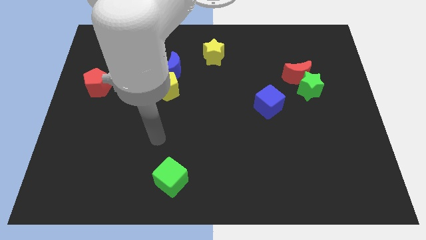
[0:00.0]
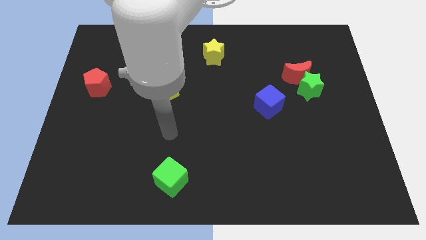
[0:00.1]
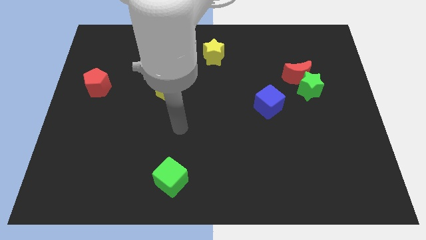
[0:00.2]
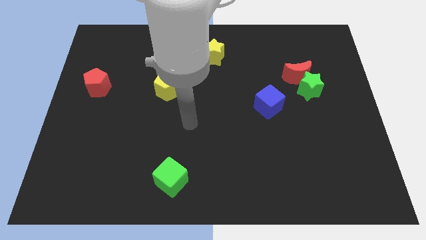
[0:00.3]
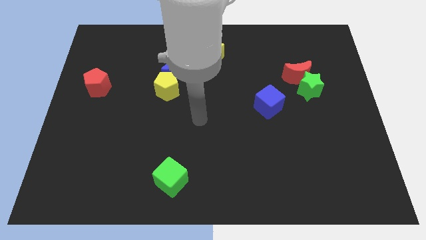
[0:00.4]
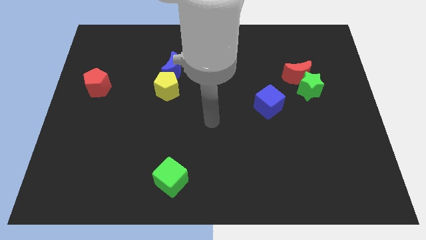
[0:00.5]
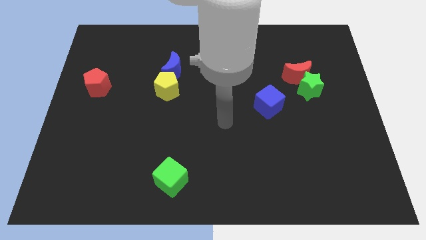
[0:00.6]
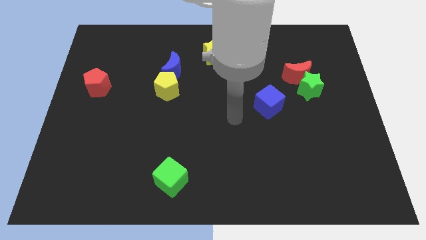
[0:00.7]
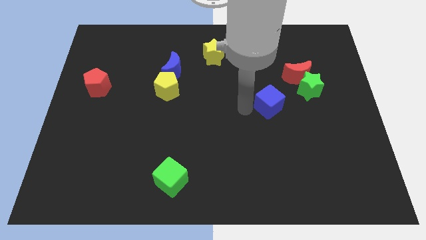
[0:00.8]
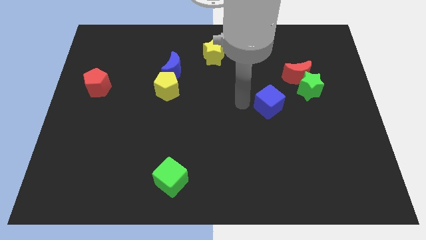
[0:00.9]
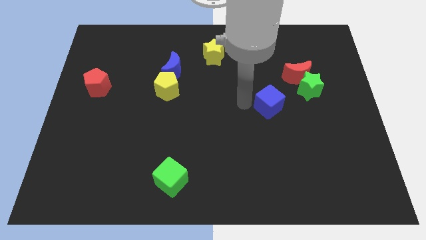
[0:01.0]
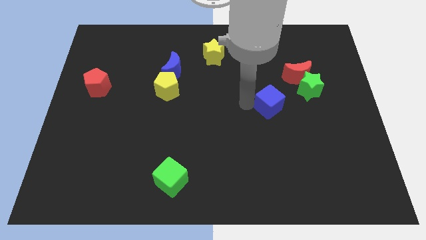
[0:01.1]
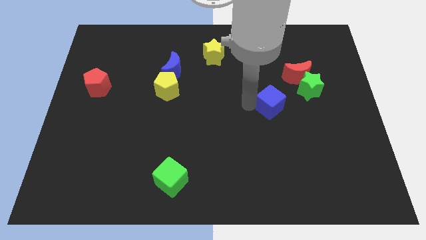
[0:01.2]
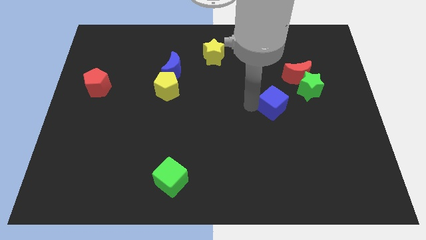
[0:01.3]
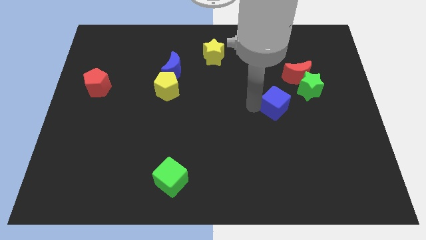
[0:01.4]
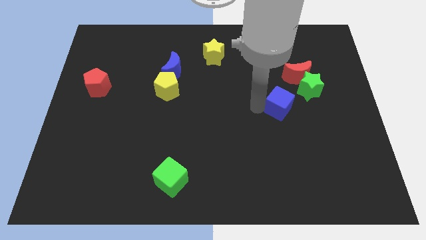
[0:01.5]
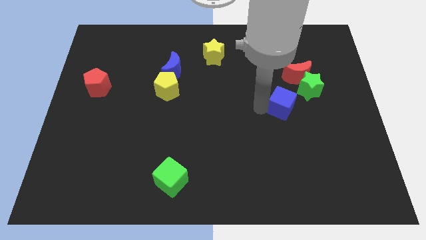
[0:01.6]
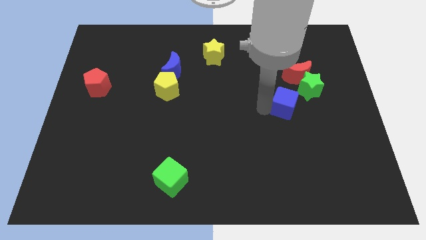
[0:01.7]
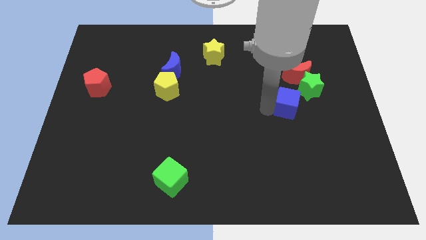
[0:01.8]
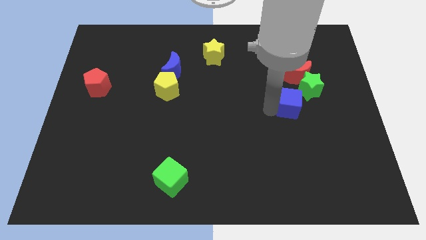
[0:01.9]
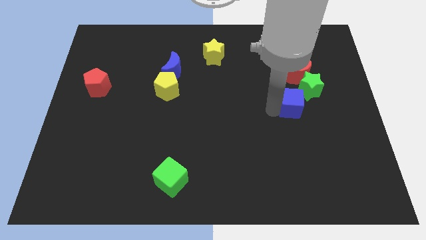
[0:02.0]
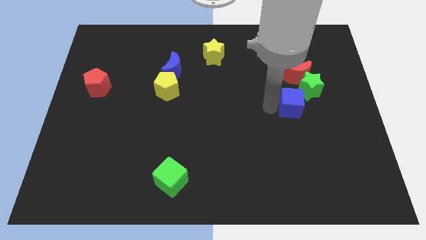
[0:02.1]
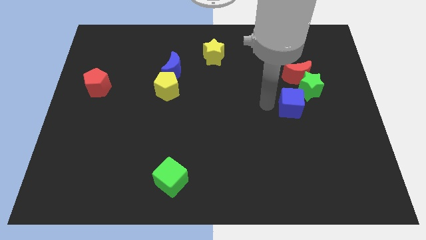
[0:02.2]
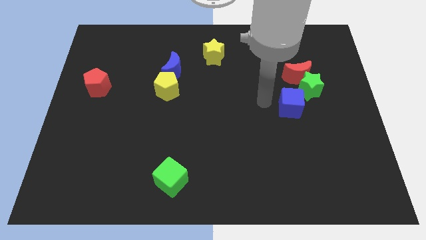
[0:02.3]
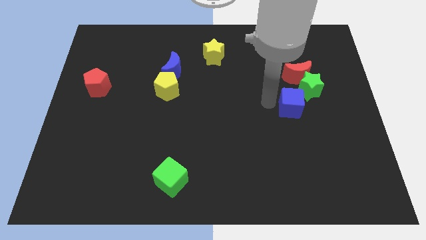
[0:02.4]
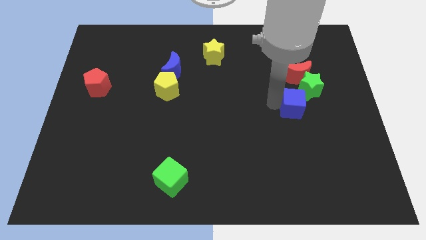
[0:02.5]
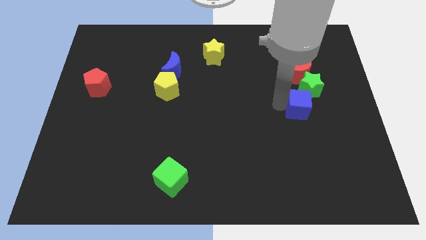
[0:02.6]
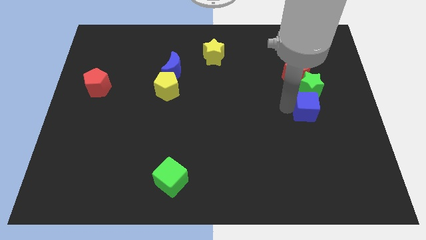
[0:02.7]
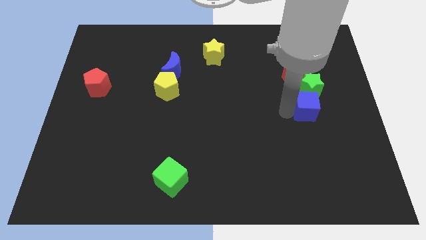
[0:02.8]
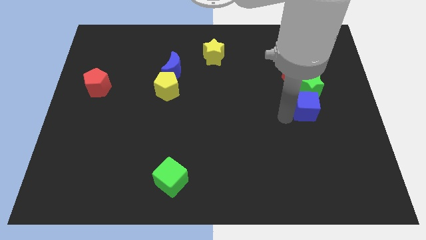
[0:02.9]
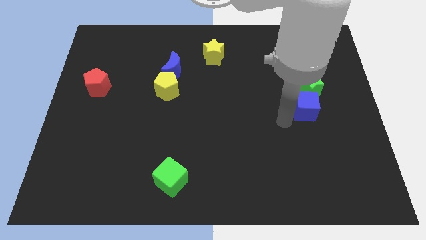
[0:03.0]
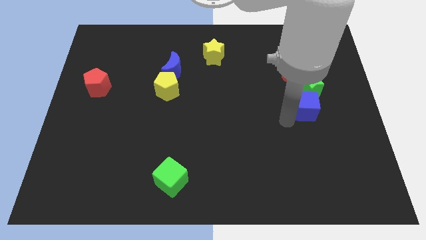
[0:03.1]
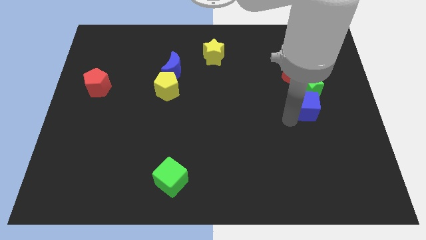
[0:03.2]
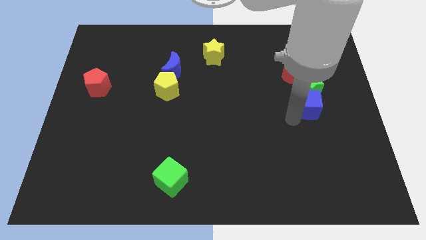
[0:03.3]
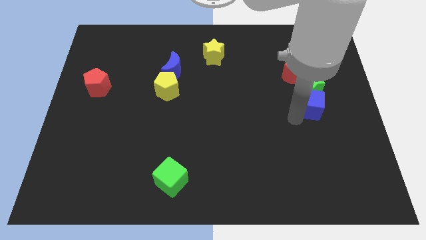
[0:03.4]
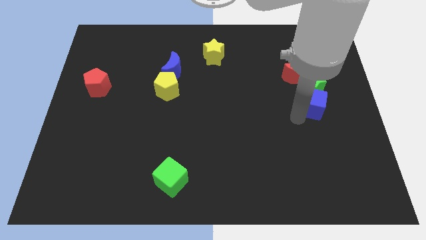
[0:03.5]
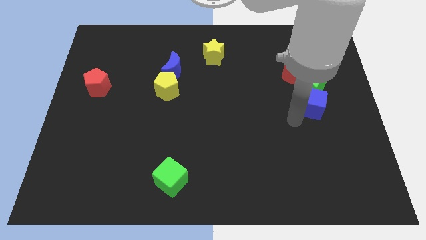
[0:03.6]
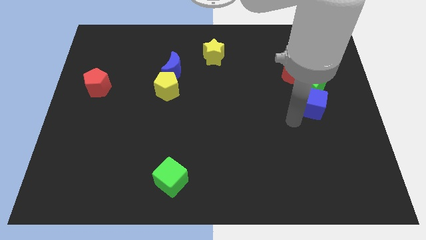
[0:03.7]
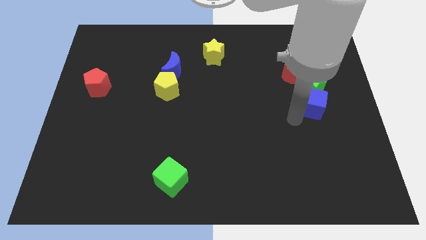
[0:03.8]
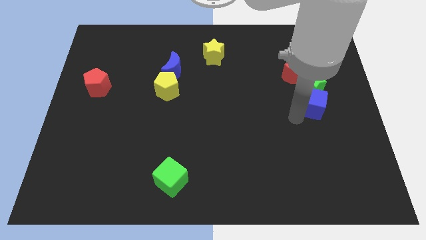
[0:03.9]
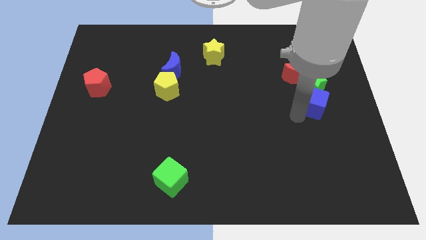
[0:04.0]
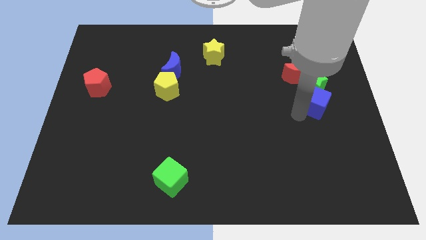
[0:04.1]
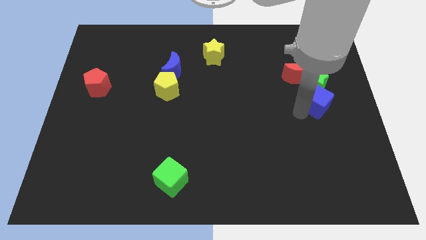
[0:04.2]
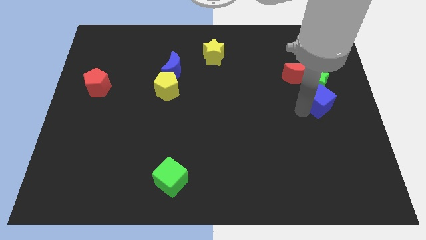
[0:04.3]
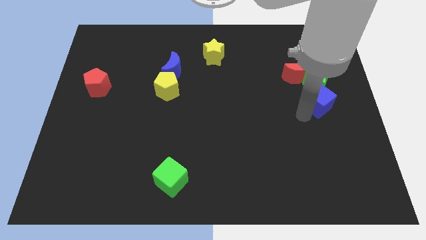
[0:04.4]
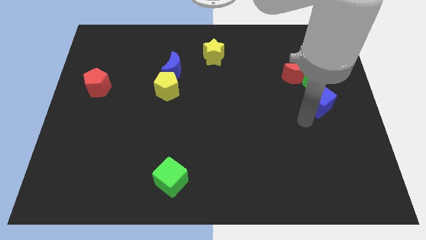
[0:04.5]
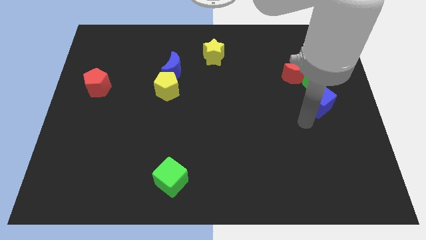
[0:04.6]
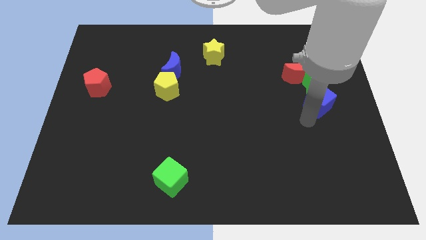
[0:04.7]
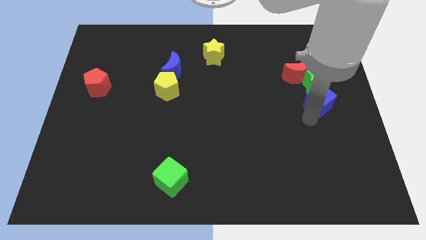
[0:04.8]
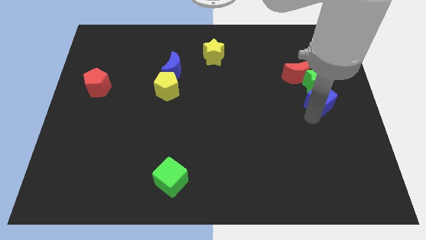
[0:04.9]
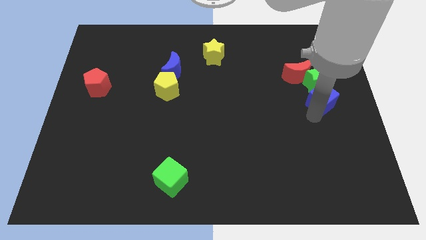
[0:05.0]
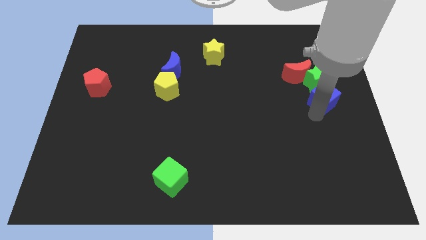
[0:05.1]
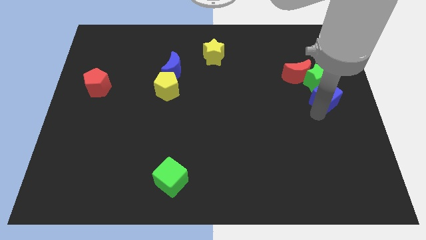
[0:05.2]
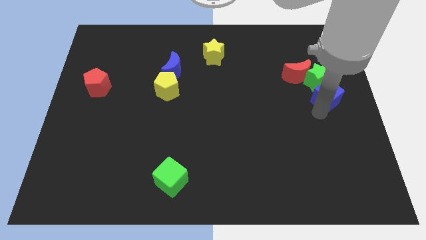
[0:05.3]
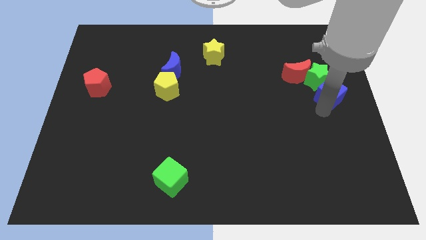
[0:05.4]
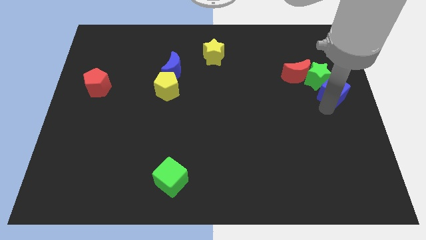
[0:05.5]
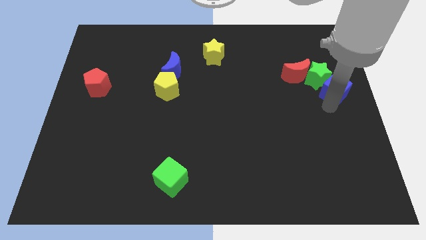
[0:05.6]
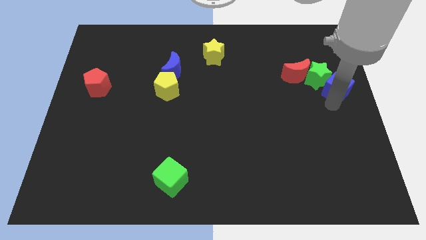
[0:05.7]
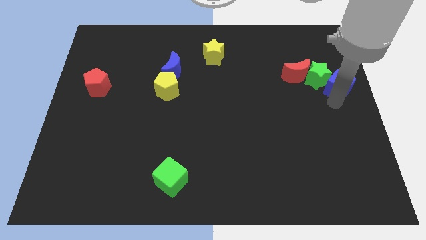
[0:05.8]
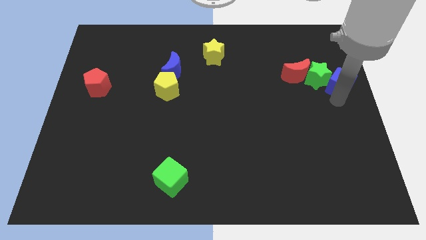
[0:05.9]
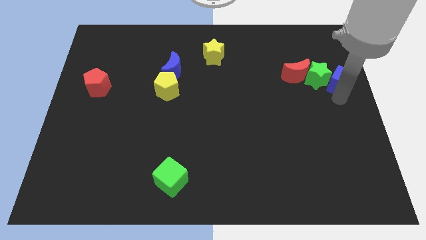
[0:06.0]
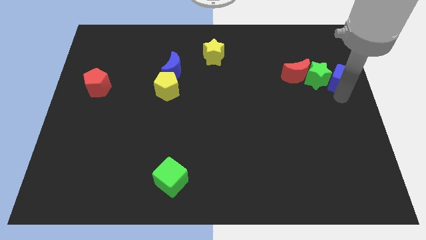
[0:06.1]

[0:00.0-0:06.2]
push the blue cube diagonally up and to the right of the green star
